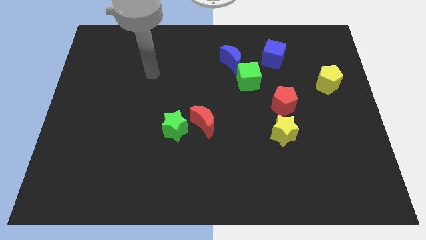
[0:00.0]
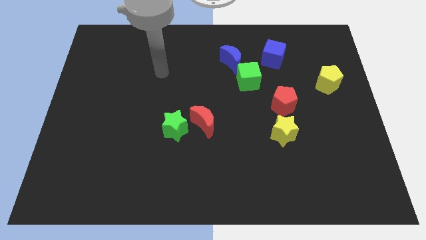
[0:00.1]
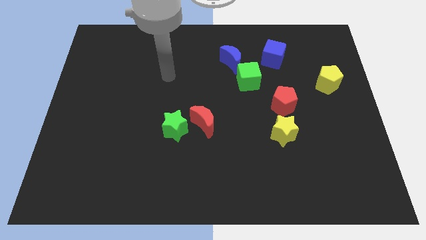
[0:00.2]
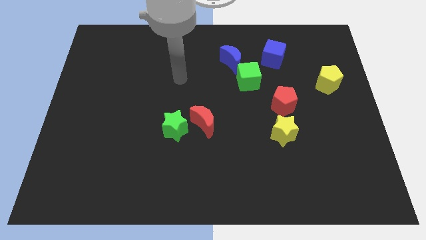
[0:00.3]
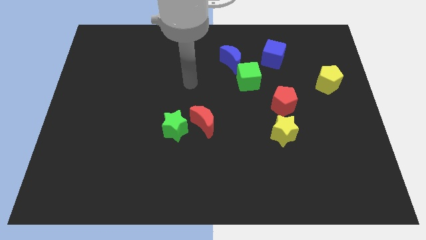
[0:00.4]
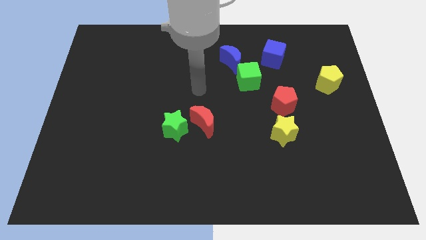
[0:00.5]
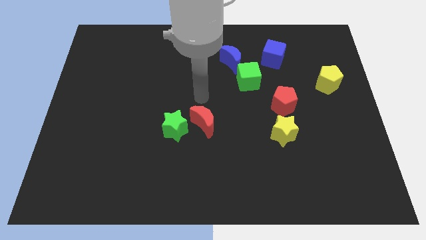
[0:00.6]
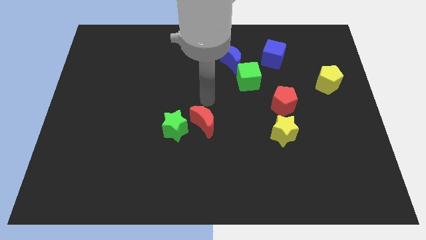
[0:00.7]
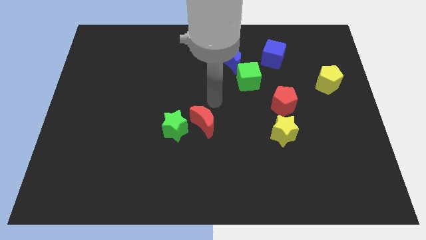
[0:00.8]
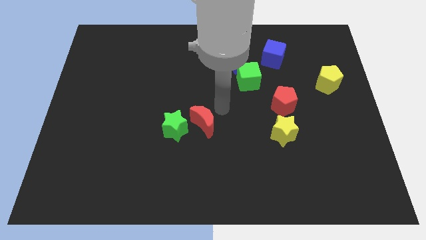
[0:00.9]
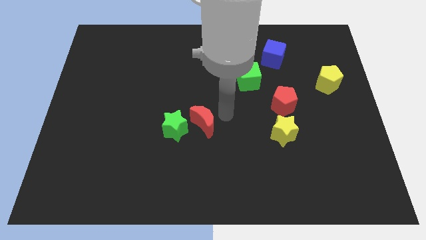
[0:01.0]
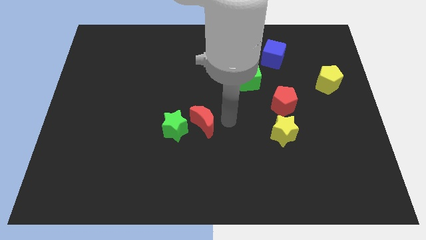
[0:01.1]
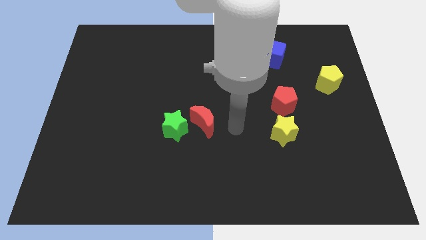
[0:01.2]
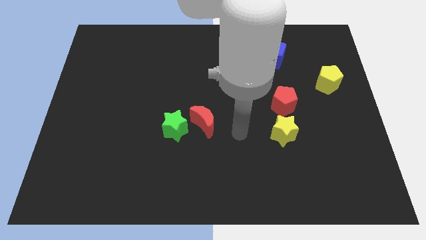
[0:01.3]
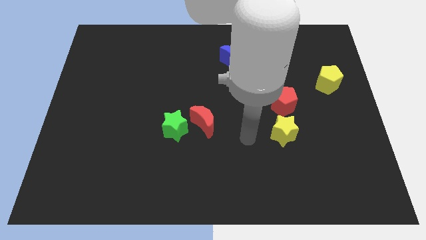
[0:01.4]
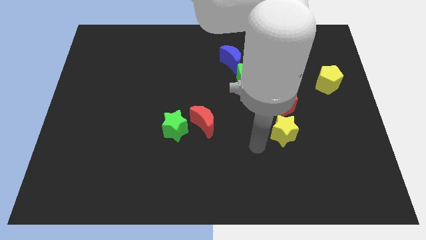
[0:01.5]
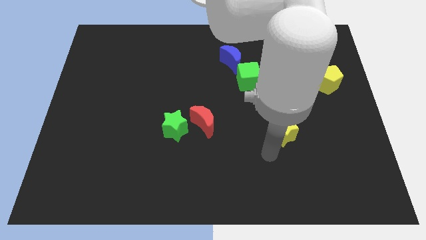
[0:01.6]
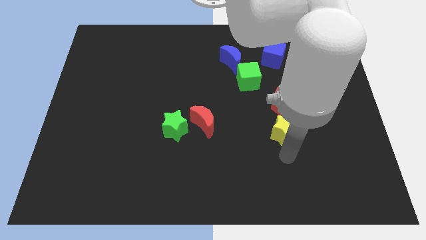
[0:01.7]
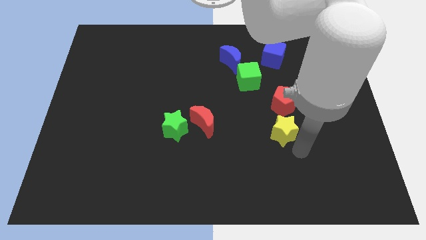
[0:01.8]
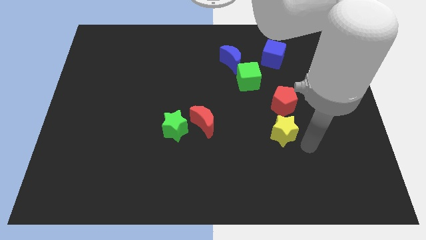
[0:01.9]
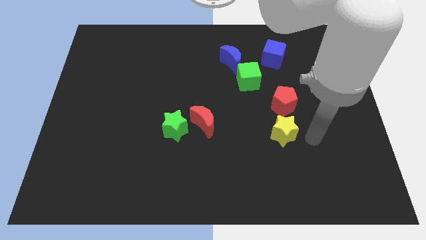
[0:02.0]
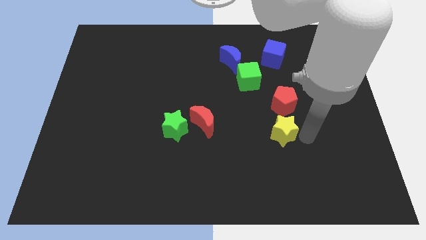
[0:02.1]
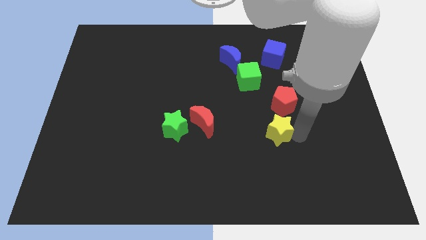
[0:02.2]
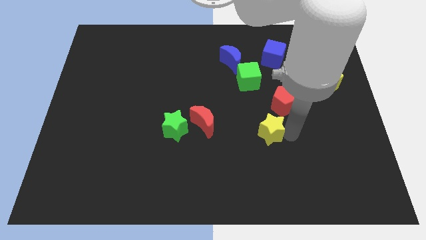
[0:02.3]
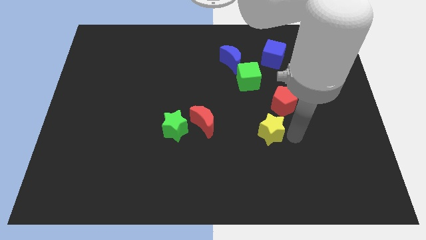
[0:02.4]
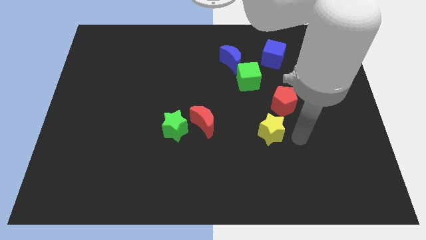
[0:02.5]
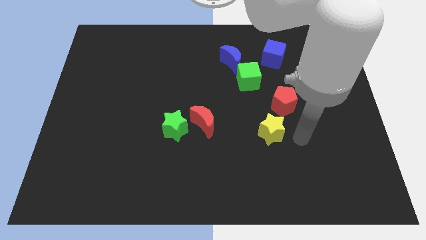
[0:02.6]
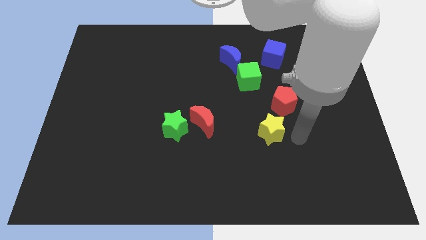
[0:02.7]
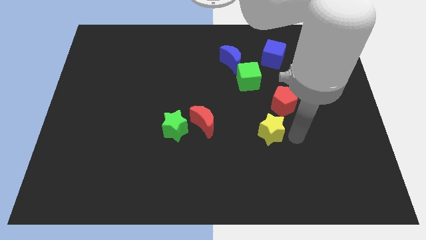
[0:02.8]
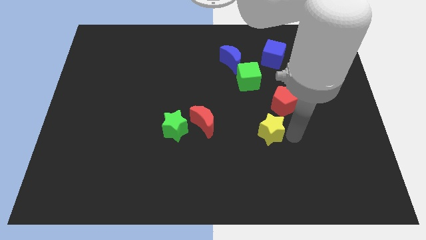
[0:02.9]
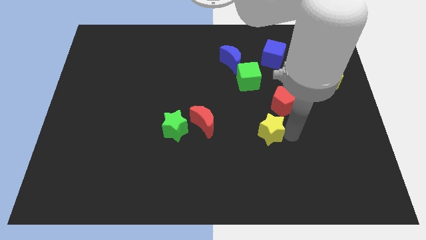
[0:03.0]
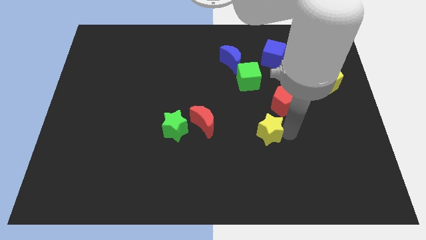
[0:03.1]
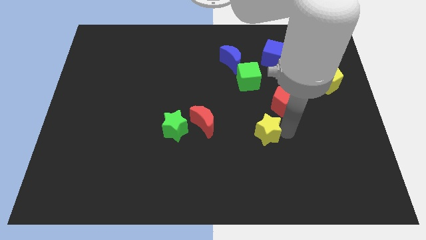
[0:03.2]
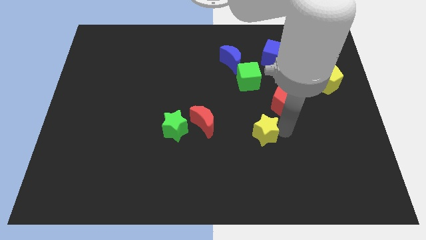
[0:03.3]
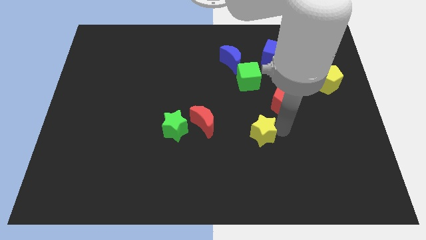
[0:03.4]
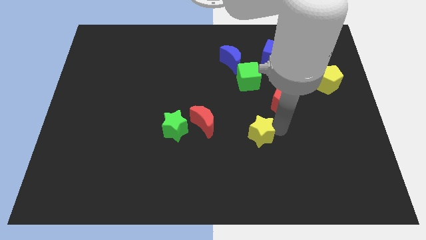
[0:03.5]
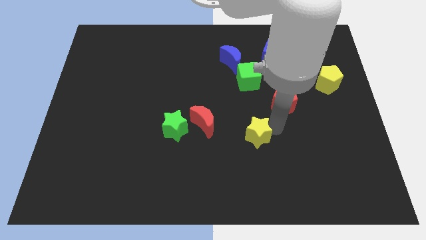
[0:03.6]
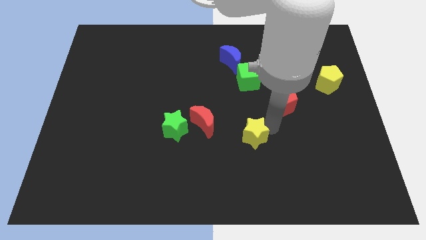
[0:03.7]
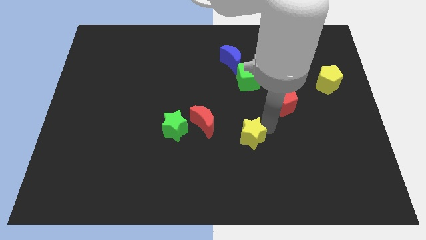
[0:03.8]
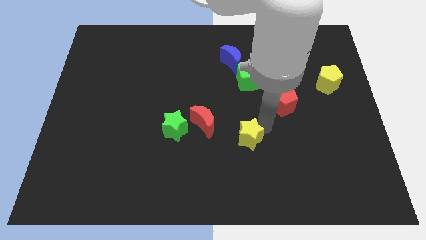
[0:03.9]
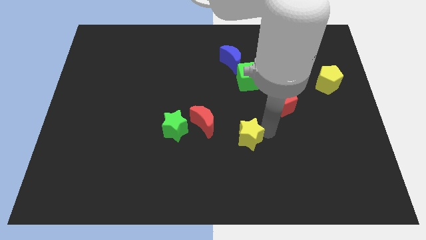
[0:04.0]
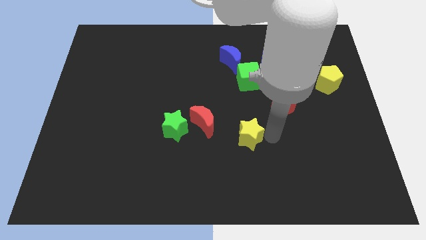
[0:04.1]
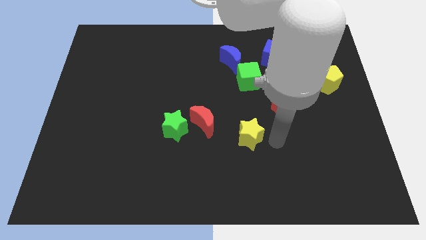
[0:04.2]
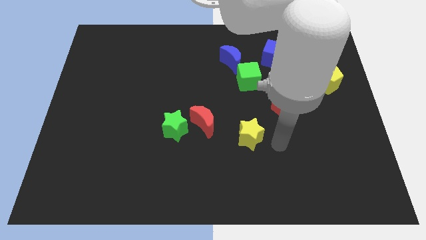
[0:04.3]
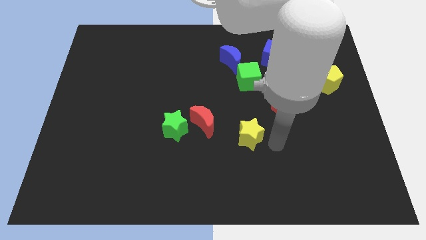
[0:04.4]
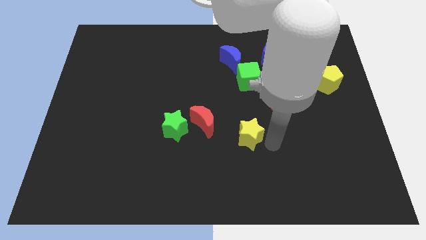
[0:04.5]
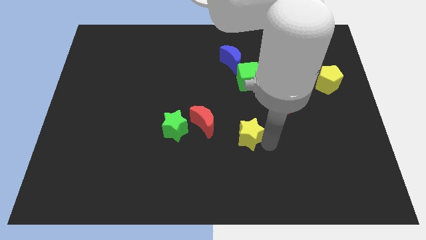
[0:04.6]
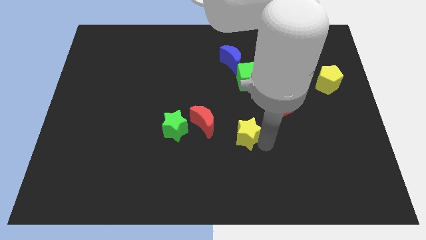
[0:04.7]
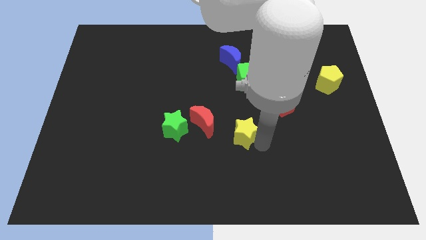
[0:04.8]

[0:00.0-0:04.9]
slide the yellow star to the right side of the green star

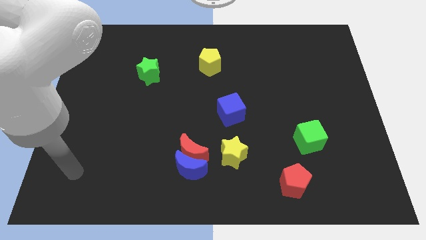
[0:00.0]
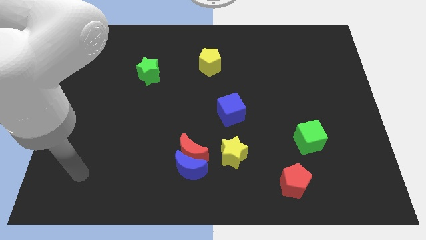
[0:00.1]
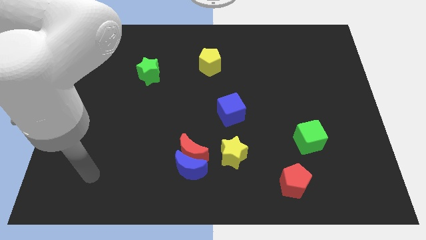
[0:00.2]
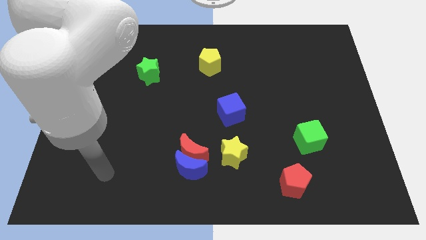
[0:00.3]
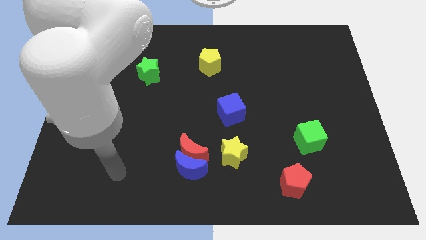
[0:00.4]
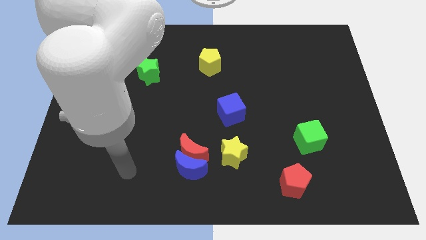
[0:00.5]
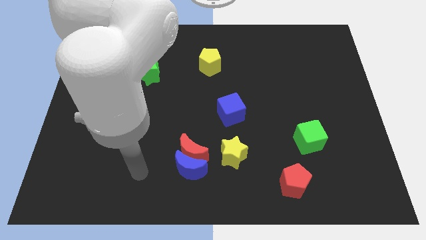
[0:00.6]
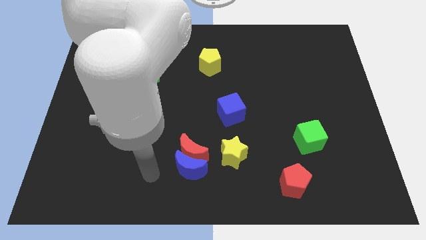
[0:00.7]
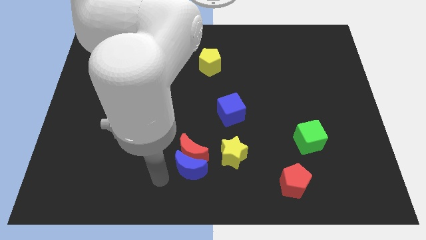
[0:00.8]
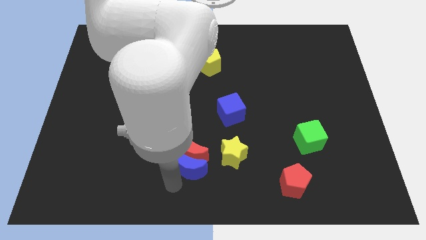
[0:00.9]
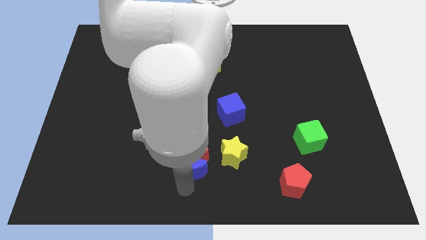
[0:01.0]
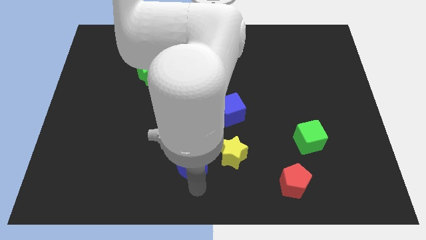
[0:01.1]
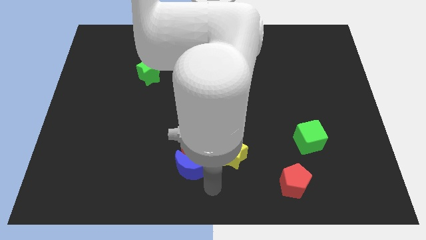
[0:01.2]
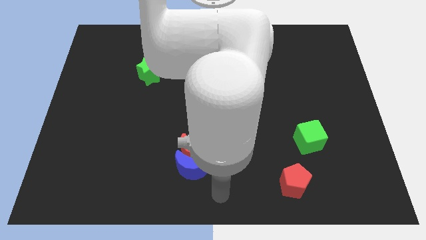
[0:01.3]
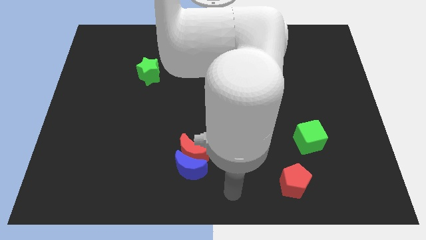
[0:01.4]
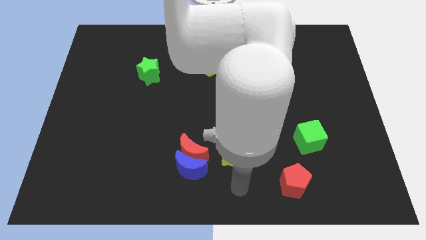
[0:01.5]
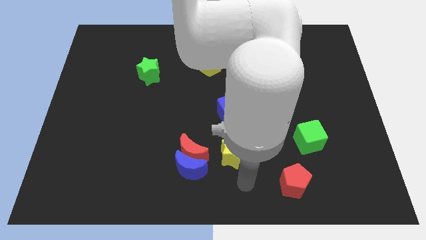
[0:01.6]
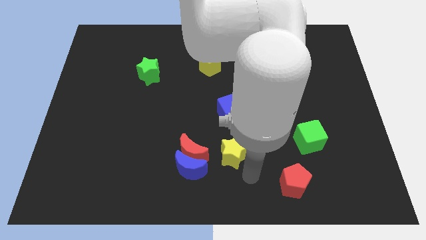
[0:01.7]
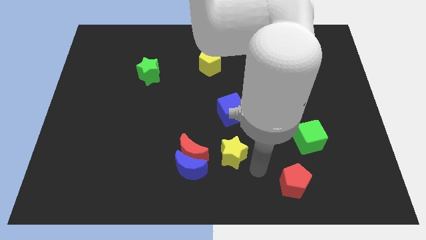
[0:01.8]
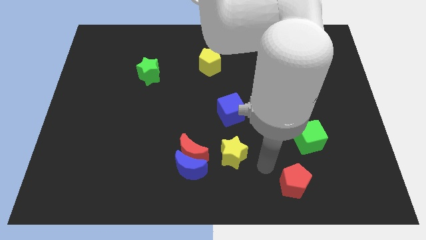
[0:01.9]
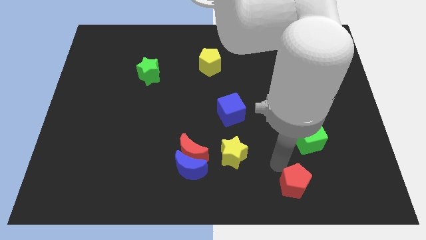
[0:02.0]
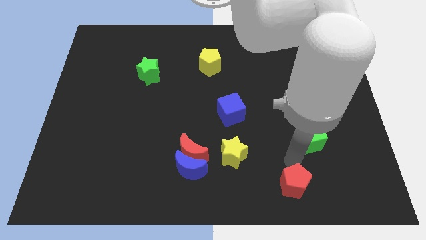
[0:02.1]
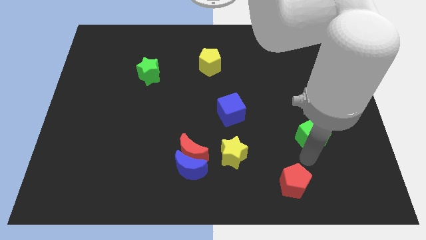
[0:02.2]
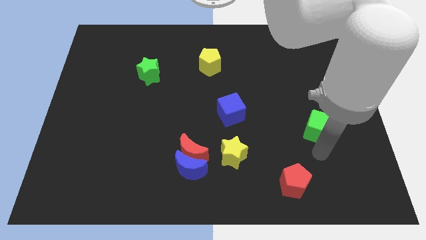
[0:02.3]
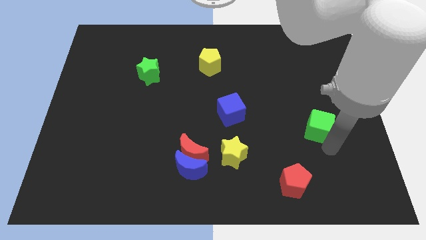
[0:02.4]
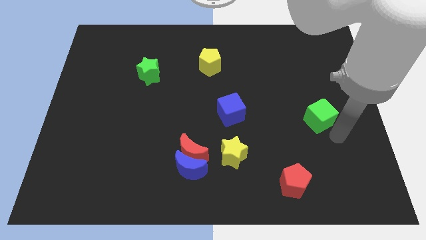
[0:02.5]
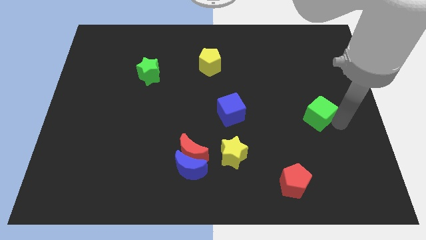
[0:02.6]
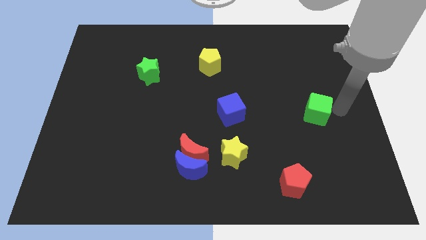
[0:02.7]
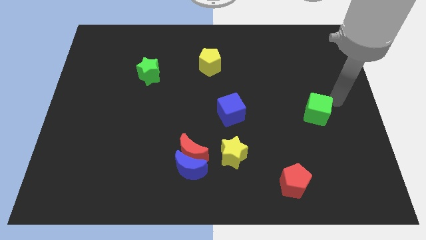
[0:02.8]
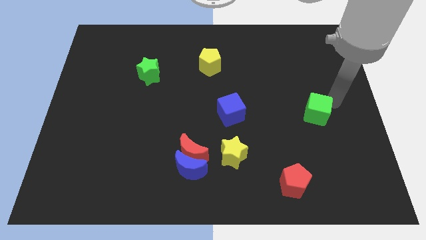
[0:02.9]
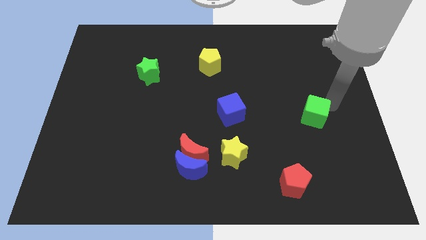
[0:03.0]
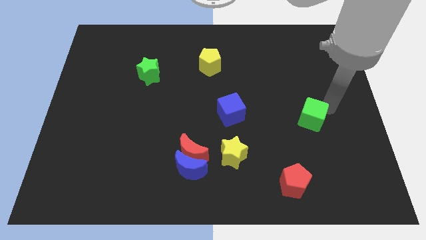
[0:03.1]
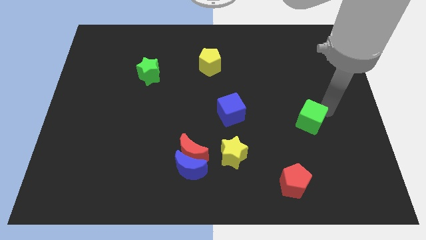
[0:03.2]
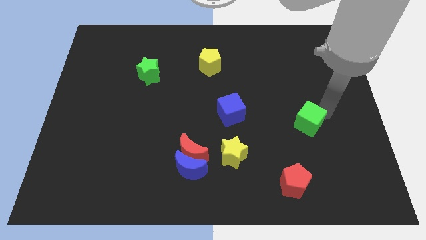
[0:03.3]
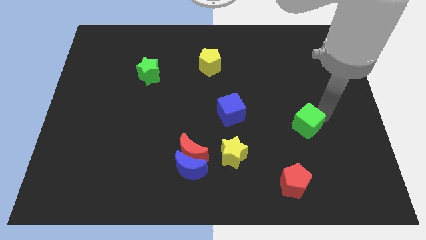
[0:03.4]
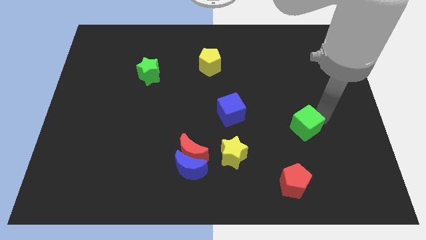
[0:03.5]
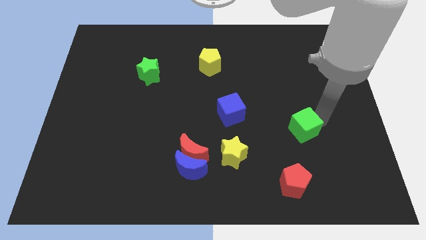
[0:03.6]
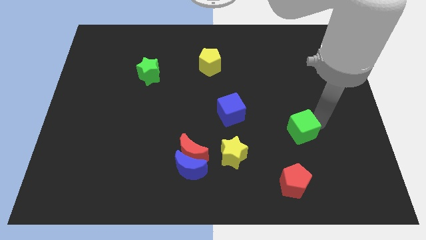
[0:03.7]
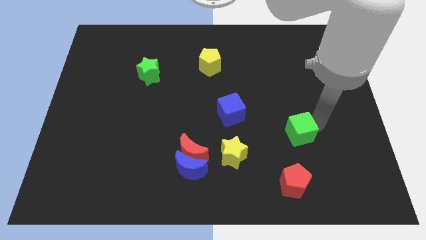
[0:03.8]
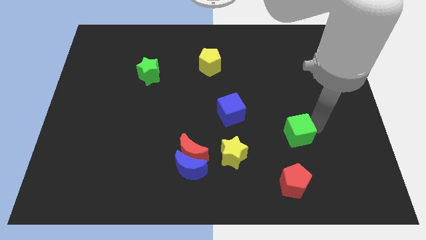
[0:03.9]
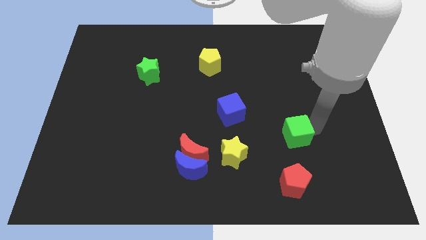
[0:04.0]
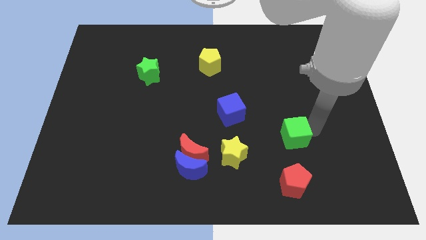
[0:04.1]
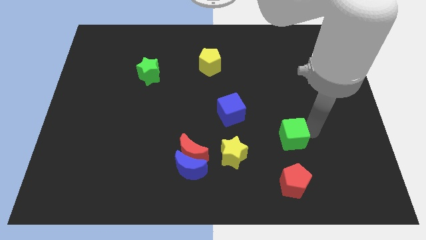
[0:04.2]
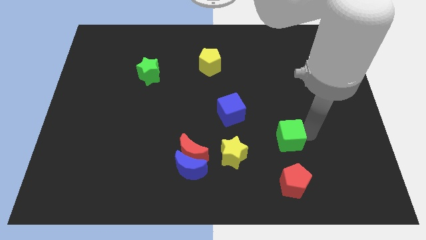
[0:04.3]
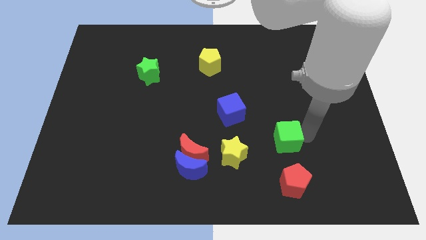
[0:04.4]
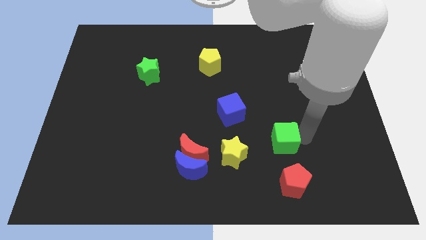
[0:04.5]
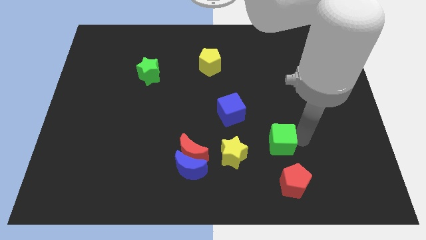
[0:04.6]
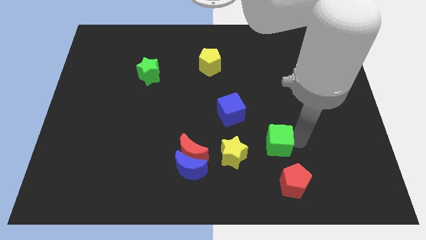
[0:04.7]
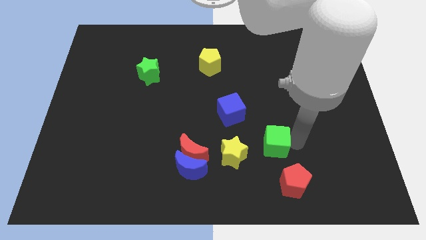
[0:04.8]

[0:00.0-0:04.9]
move the green cube diagonally up and to the right of the yellow star
